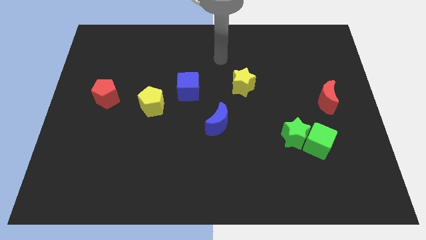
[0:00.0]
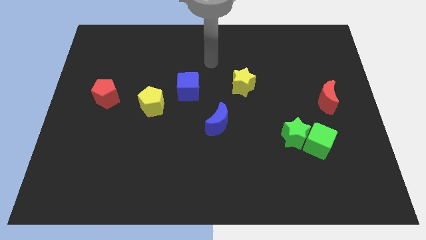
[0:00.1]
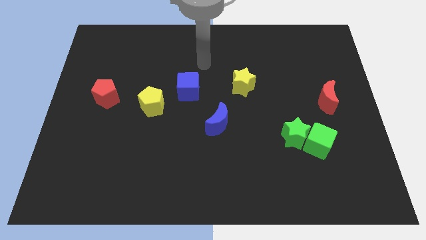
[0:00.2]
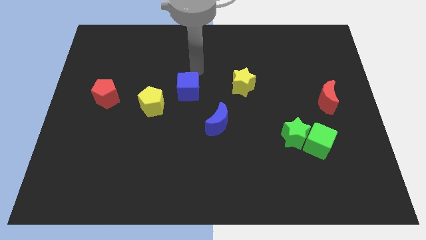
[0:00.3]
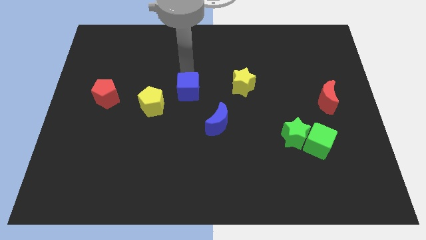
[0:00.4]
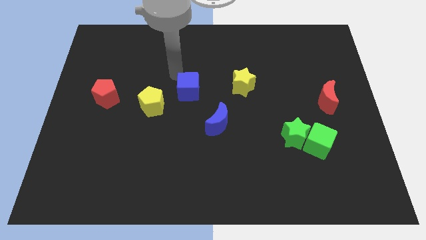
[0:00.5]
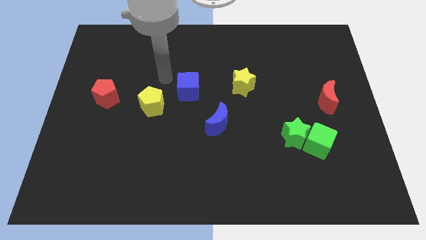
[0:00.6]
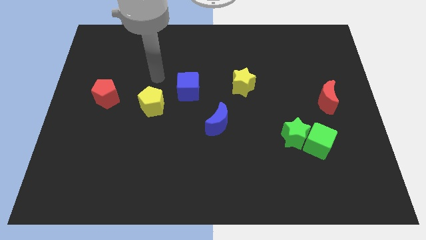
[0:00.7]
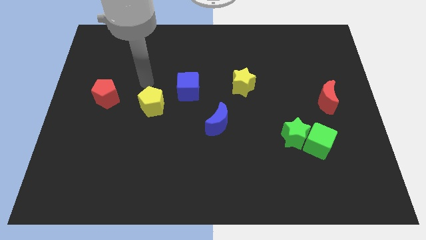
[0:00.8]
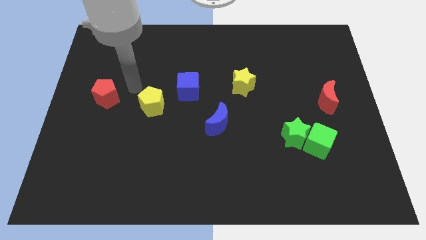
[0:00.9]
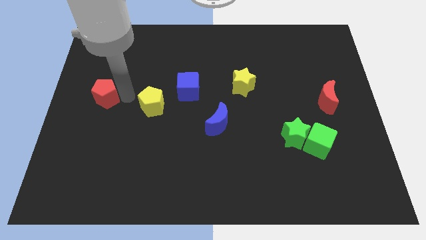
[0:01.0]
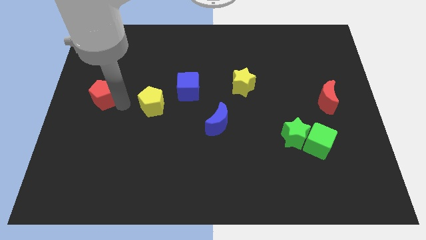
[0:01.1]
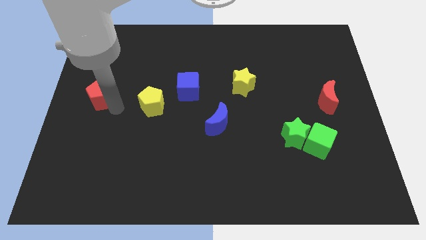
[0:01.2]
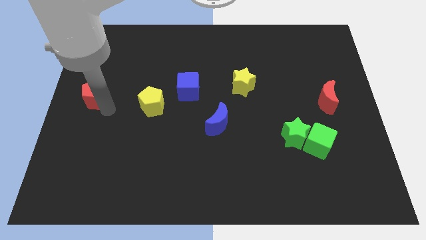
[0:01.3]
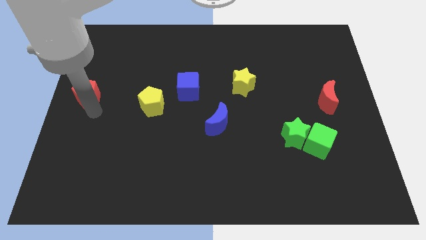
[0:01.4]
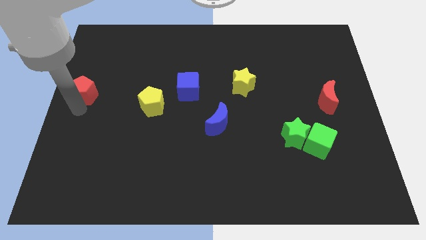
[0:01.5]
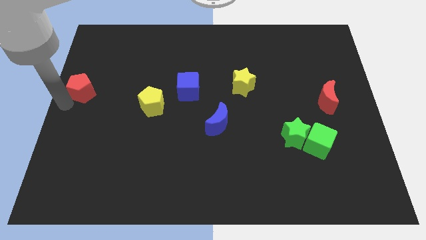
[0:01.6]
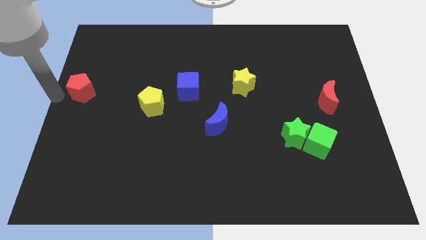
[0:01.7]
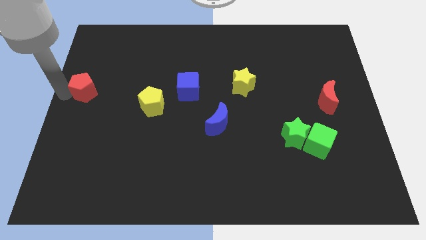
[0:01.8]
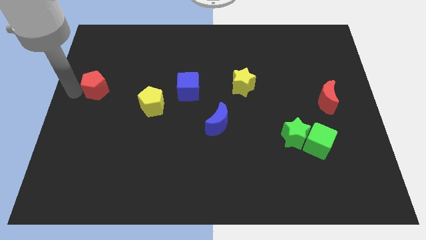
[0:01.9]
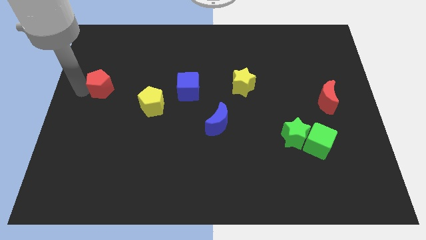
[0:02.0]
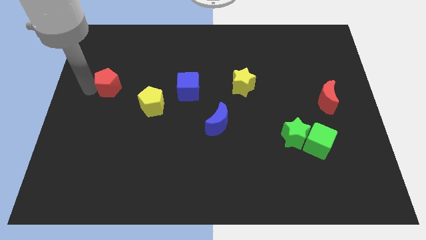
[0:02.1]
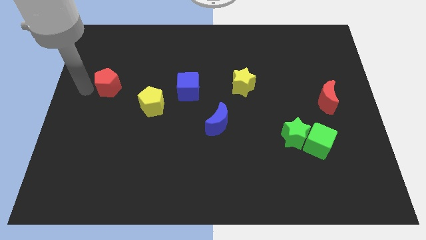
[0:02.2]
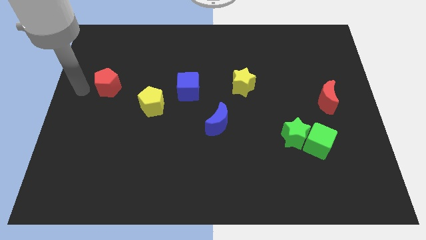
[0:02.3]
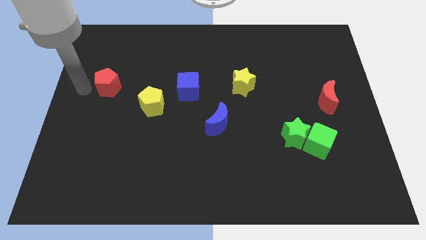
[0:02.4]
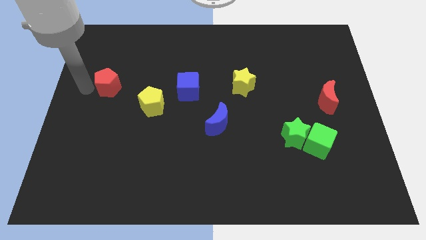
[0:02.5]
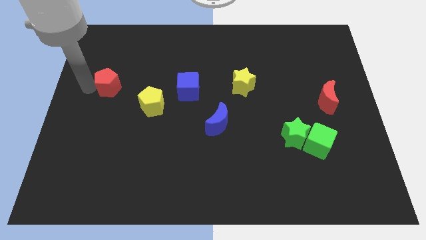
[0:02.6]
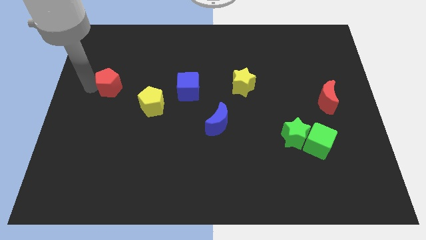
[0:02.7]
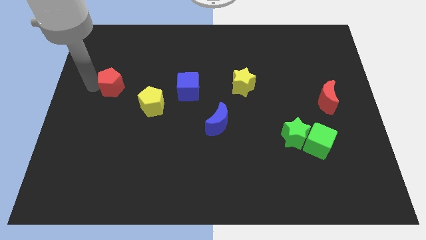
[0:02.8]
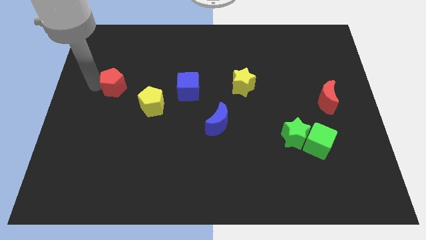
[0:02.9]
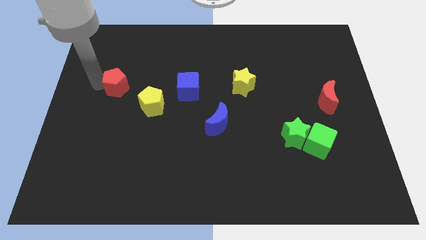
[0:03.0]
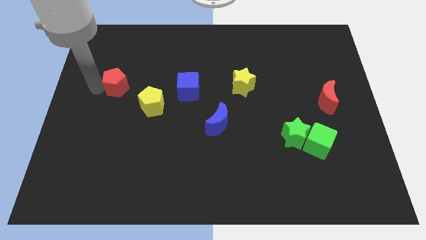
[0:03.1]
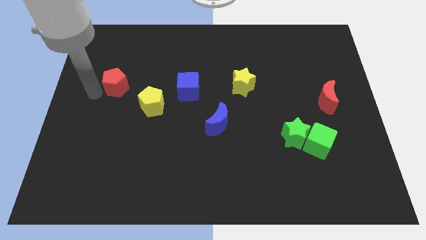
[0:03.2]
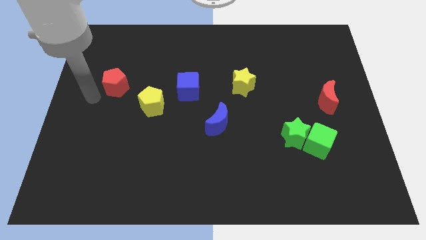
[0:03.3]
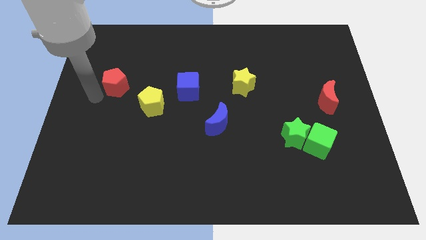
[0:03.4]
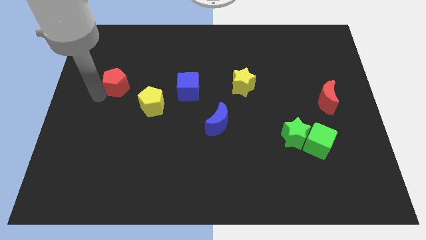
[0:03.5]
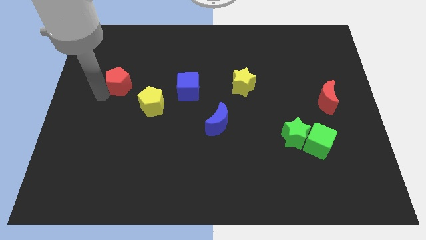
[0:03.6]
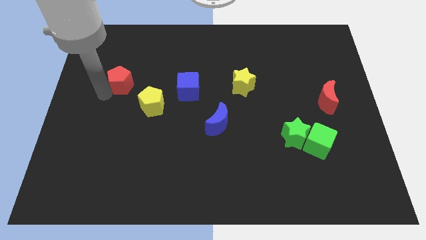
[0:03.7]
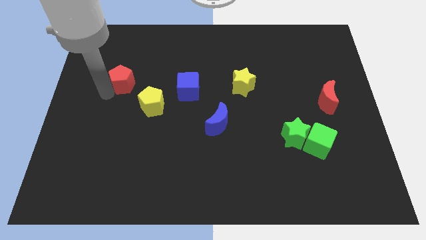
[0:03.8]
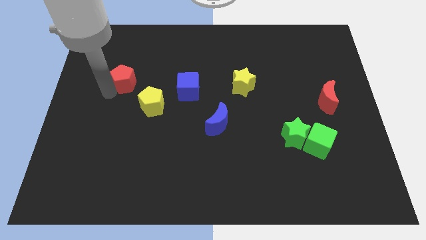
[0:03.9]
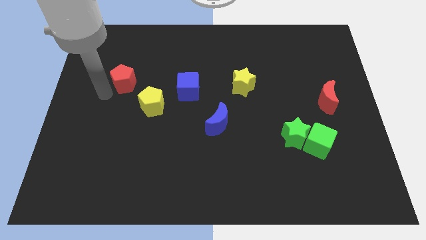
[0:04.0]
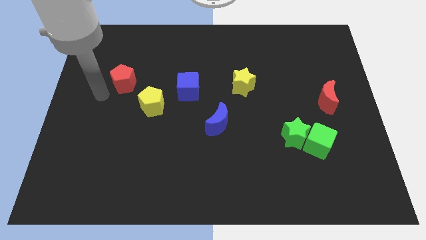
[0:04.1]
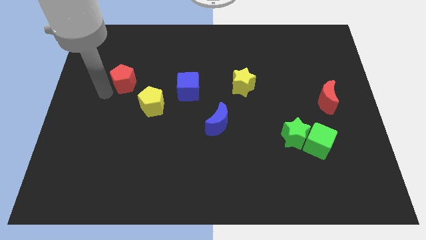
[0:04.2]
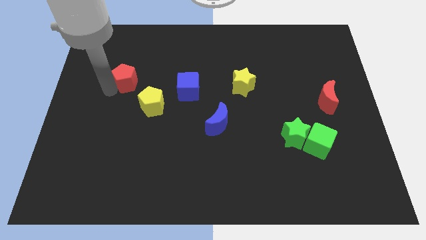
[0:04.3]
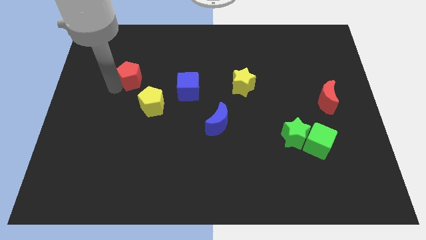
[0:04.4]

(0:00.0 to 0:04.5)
move the red pentagon up and to the right slightly

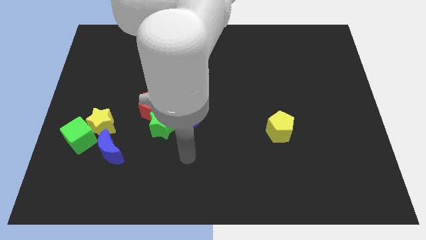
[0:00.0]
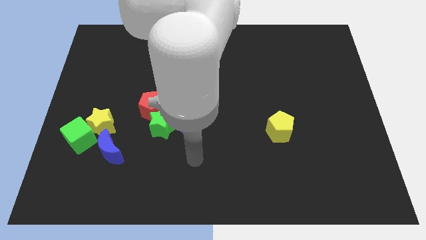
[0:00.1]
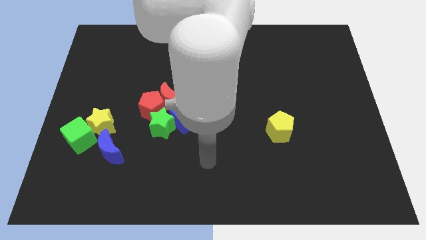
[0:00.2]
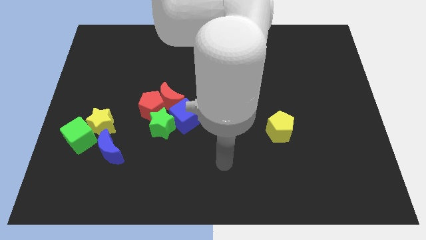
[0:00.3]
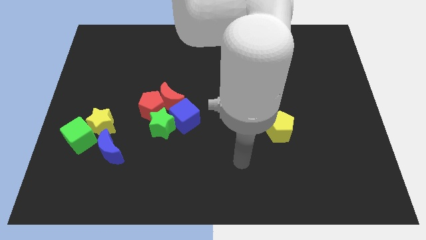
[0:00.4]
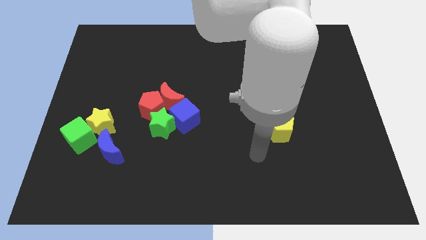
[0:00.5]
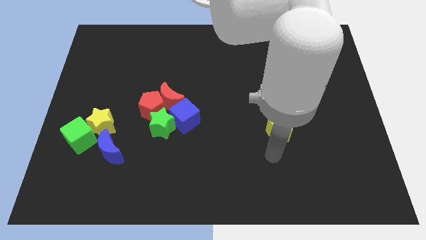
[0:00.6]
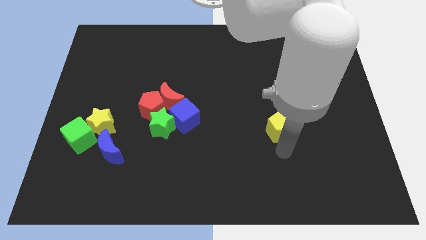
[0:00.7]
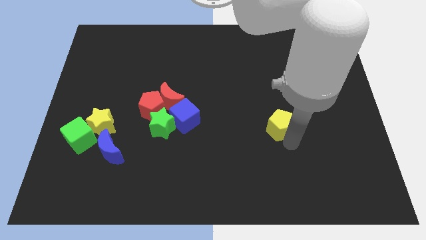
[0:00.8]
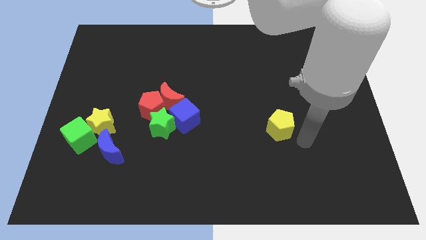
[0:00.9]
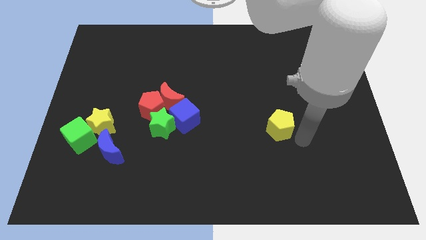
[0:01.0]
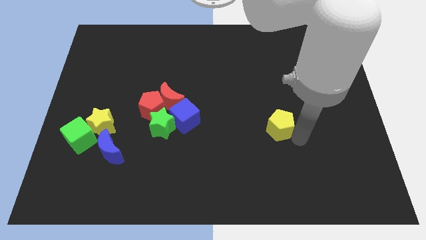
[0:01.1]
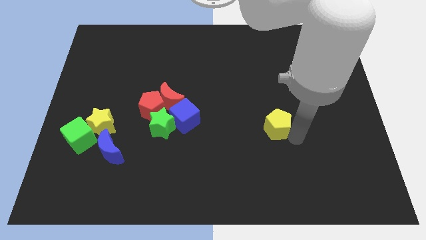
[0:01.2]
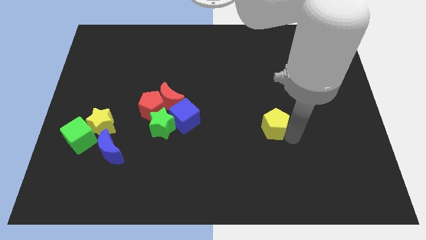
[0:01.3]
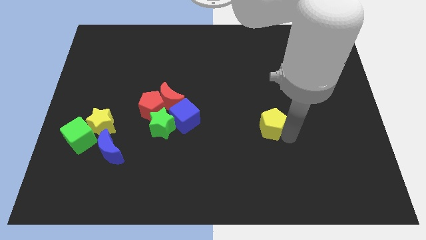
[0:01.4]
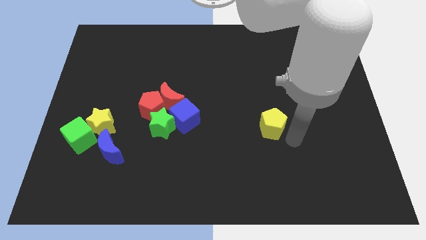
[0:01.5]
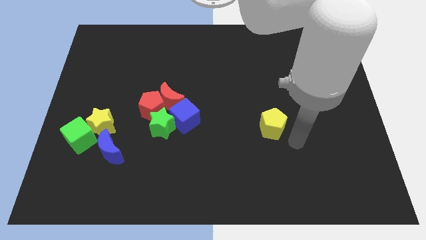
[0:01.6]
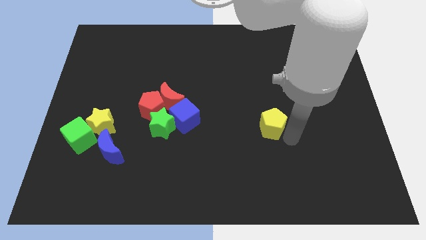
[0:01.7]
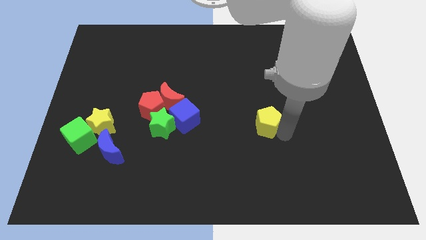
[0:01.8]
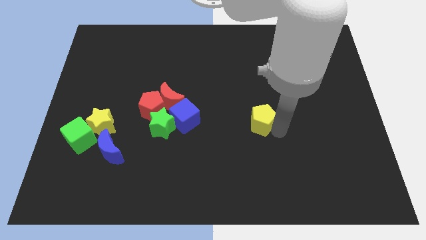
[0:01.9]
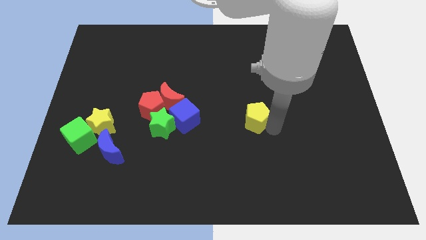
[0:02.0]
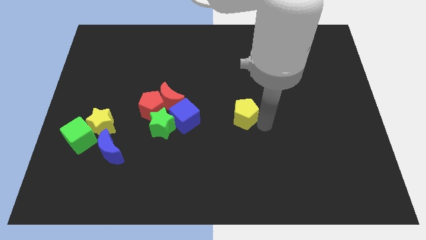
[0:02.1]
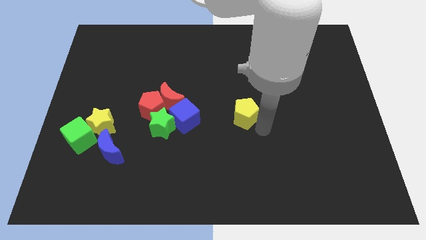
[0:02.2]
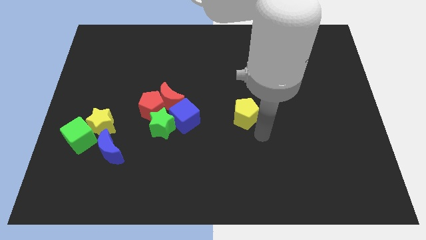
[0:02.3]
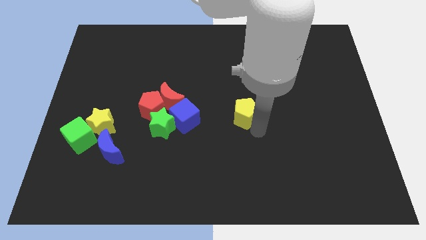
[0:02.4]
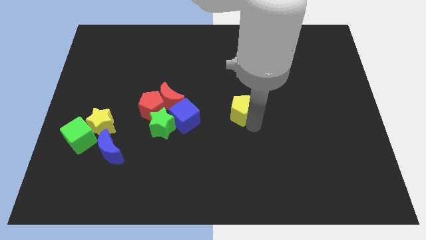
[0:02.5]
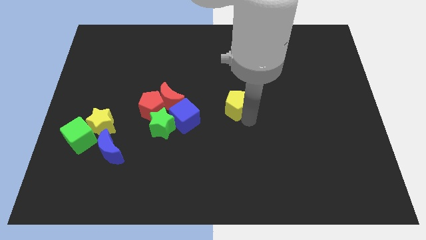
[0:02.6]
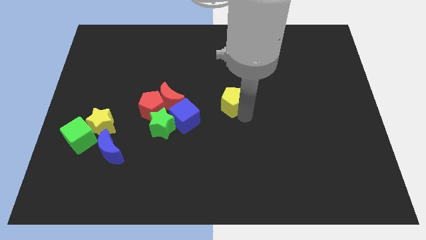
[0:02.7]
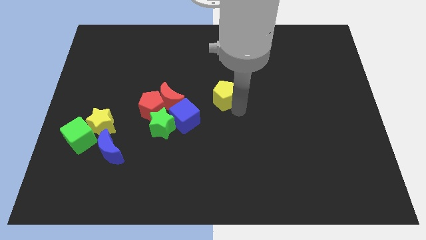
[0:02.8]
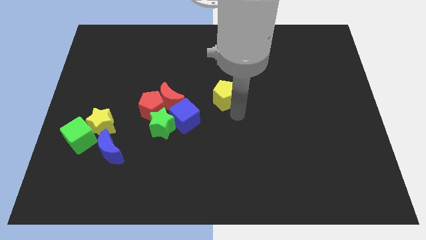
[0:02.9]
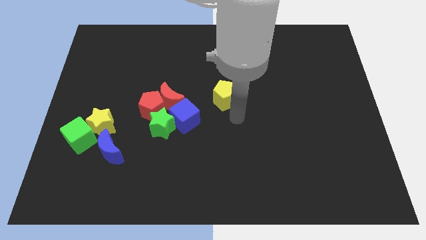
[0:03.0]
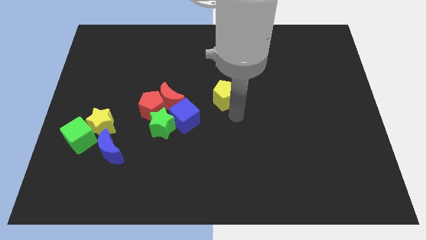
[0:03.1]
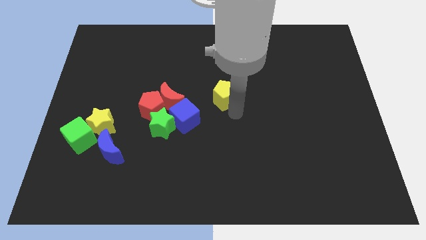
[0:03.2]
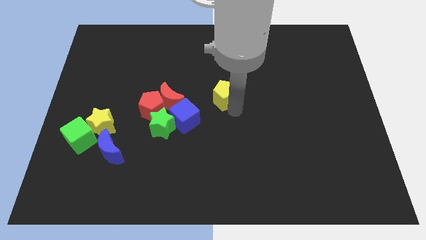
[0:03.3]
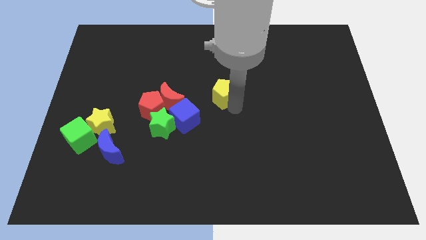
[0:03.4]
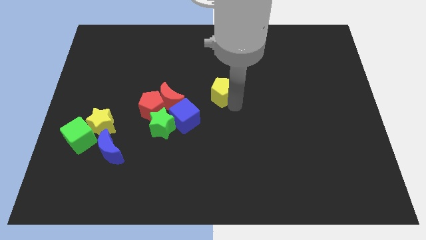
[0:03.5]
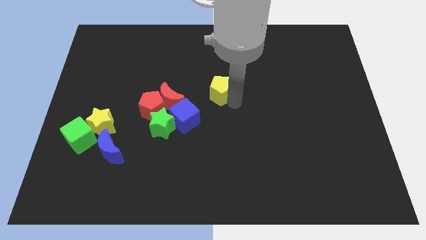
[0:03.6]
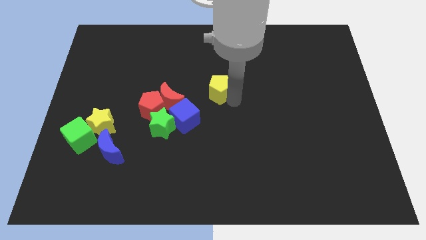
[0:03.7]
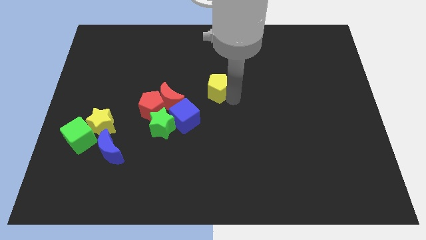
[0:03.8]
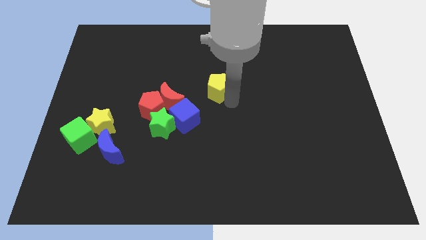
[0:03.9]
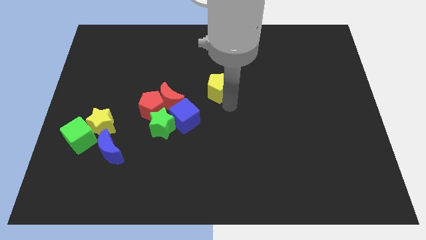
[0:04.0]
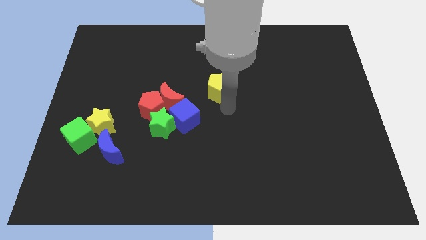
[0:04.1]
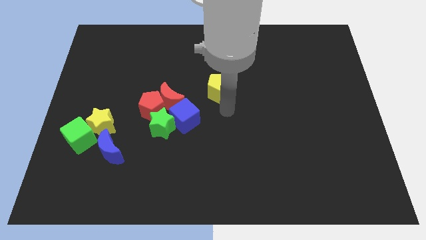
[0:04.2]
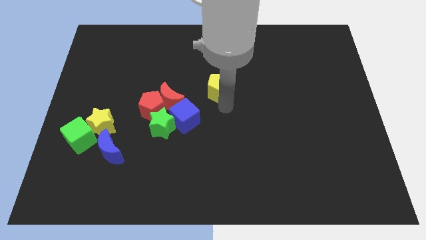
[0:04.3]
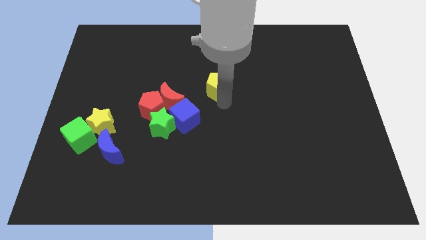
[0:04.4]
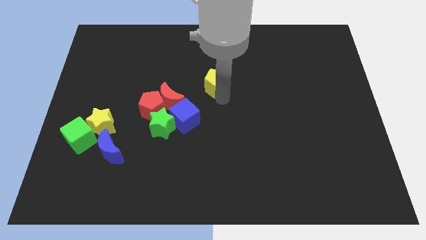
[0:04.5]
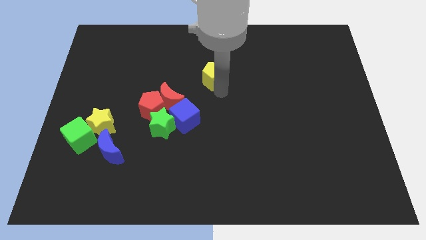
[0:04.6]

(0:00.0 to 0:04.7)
slide the yellow pentagon diagonally upwards and to the left
